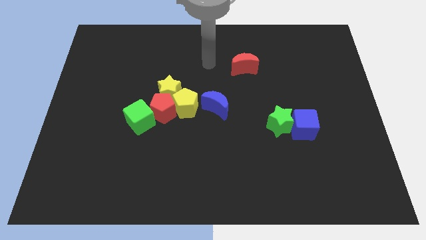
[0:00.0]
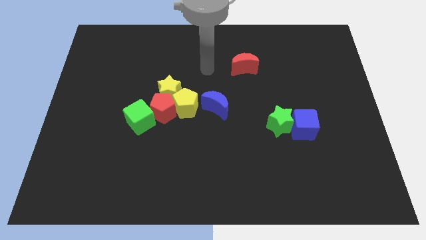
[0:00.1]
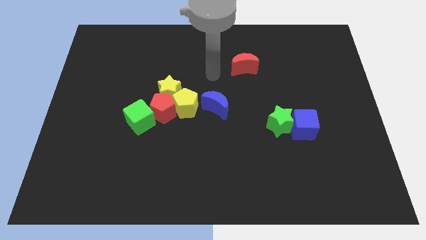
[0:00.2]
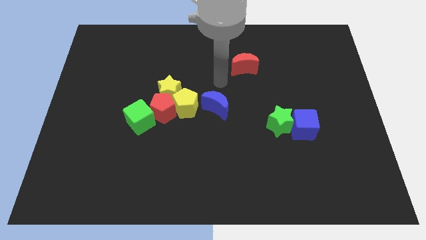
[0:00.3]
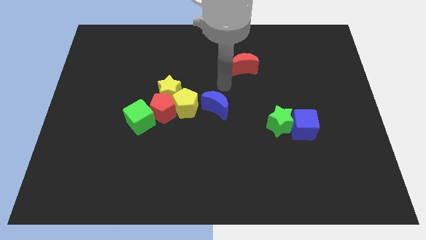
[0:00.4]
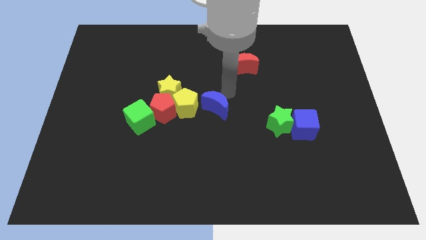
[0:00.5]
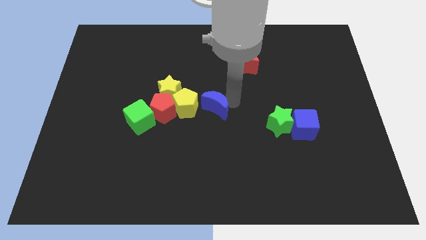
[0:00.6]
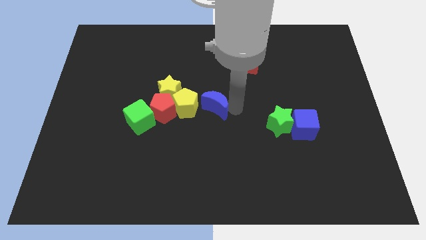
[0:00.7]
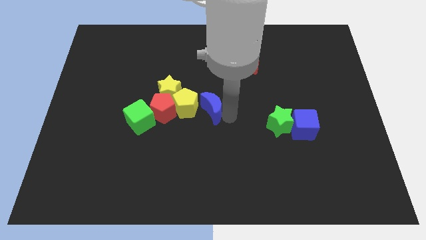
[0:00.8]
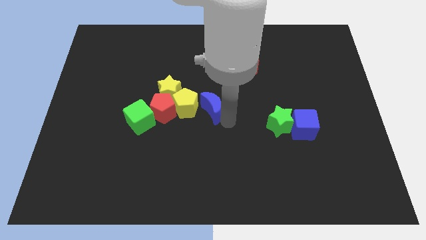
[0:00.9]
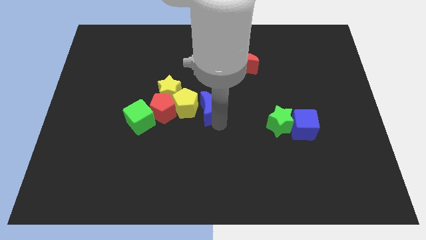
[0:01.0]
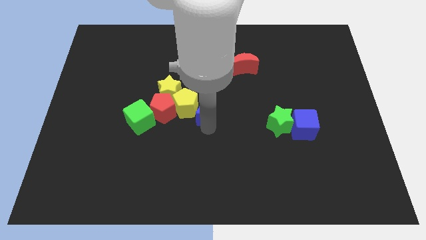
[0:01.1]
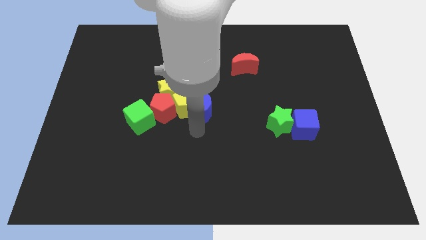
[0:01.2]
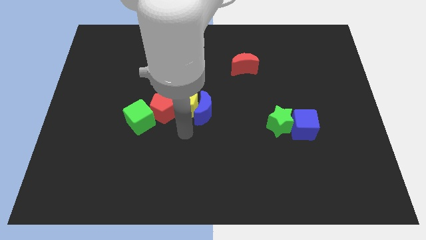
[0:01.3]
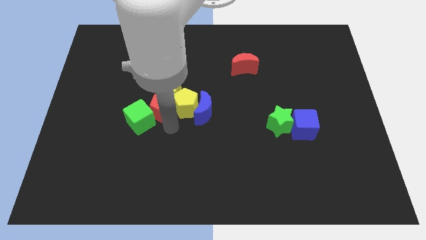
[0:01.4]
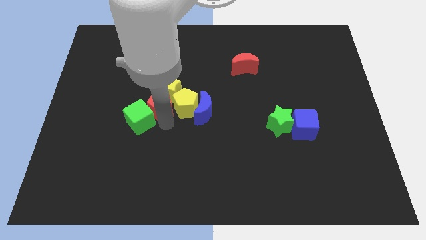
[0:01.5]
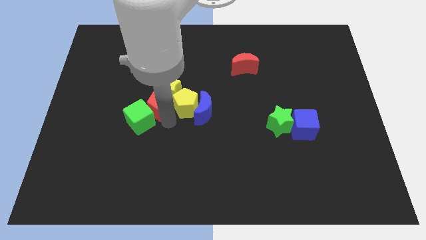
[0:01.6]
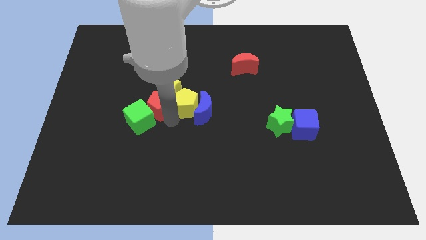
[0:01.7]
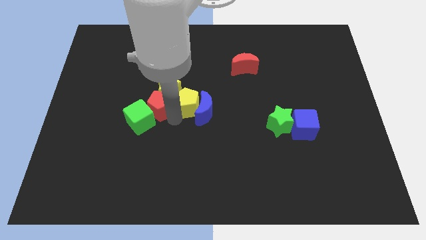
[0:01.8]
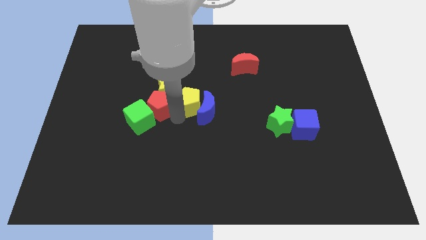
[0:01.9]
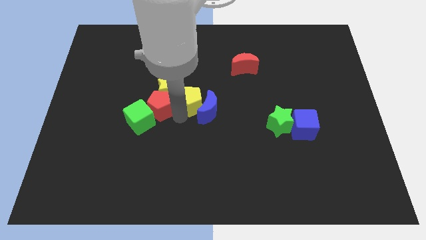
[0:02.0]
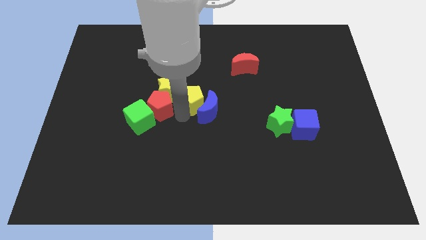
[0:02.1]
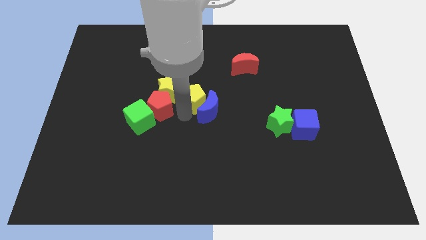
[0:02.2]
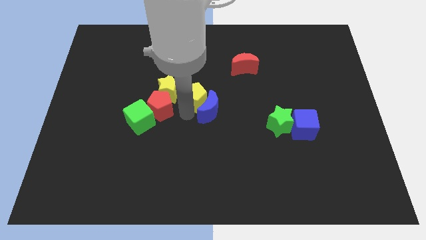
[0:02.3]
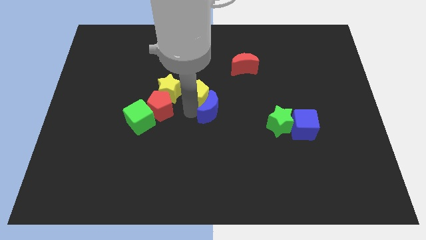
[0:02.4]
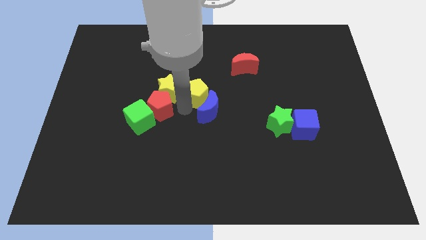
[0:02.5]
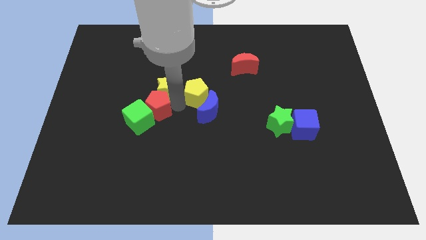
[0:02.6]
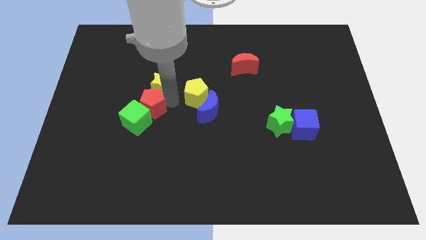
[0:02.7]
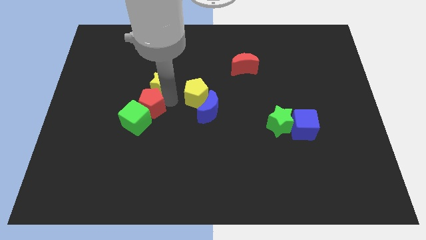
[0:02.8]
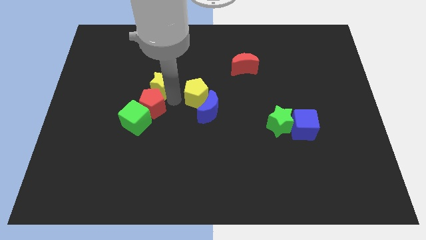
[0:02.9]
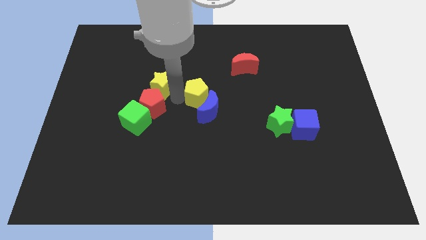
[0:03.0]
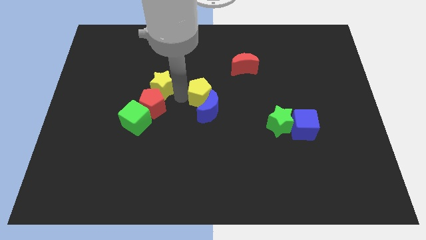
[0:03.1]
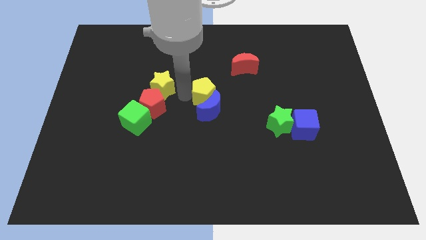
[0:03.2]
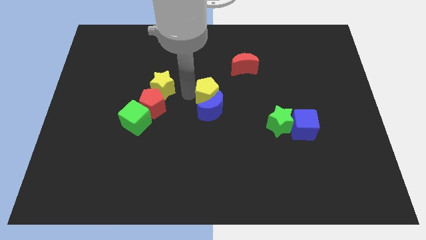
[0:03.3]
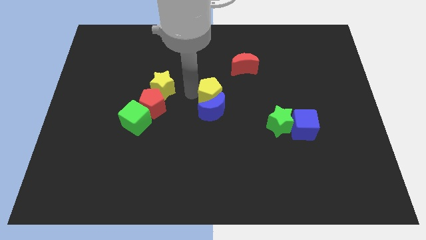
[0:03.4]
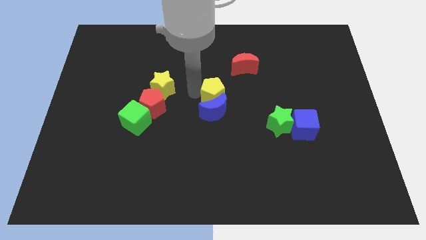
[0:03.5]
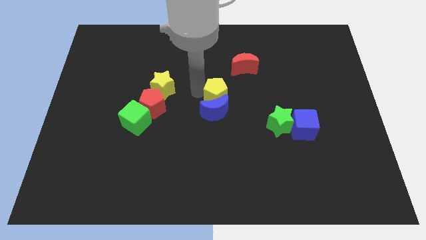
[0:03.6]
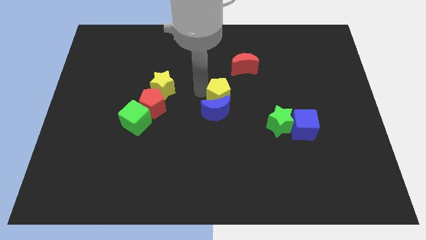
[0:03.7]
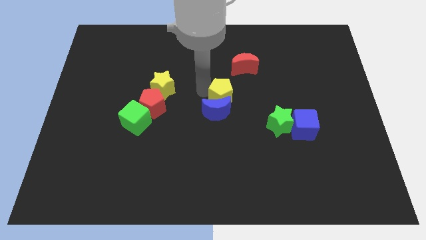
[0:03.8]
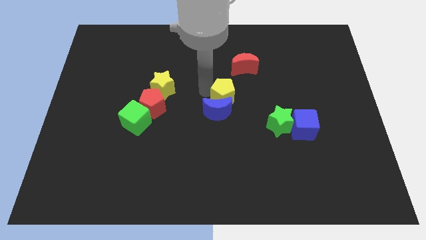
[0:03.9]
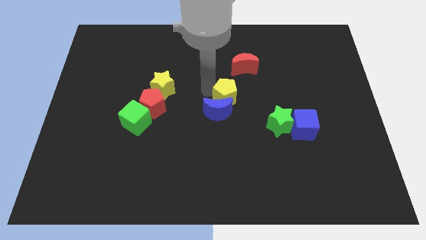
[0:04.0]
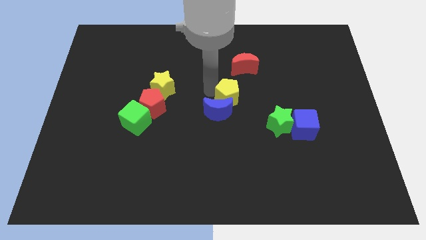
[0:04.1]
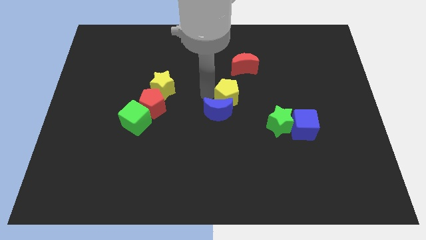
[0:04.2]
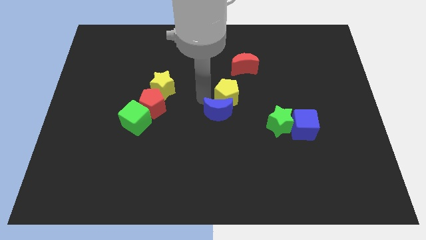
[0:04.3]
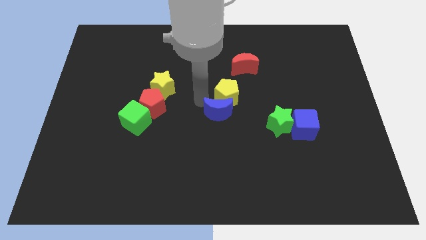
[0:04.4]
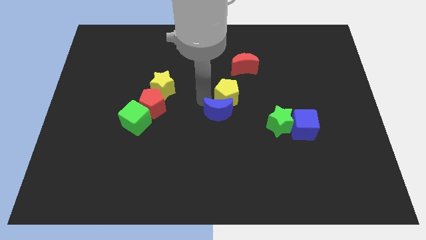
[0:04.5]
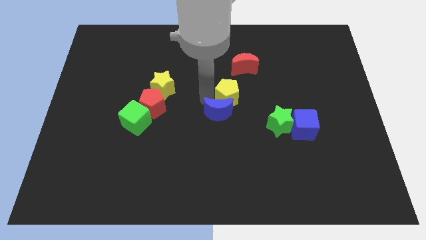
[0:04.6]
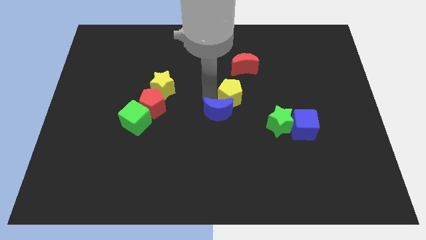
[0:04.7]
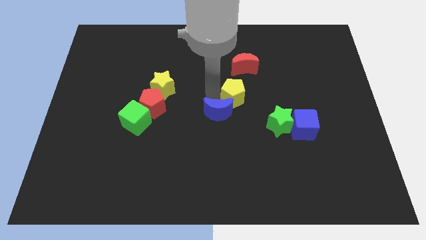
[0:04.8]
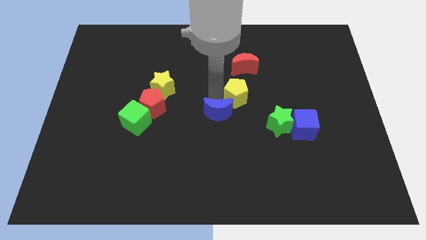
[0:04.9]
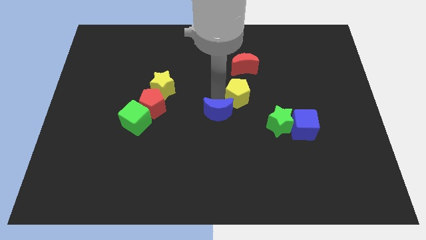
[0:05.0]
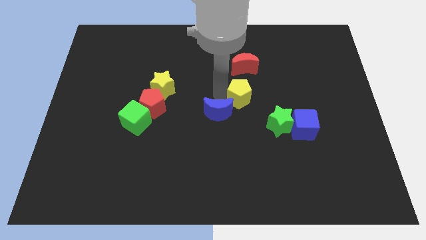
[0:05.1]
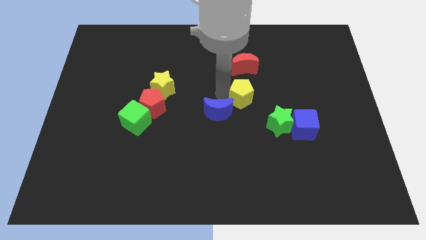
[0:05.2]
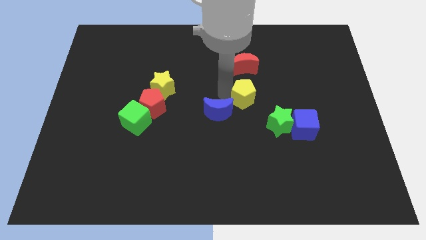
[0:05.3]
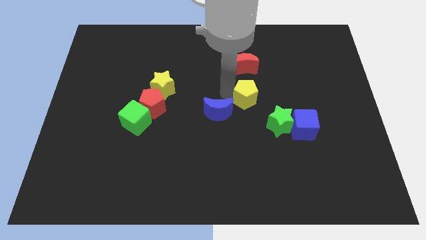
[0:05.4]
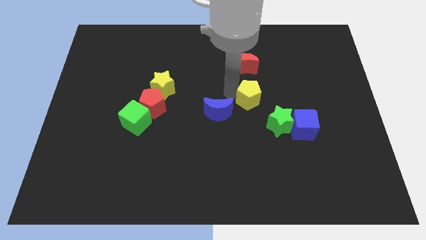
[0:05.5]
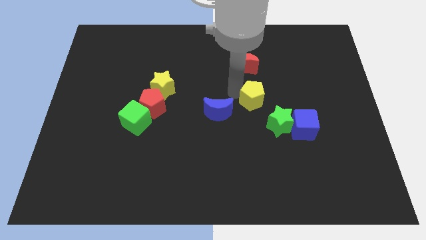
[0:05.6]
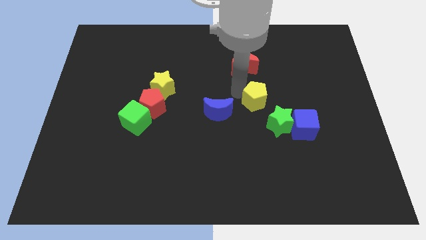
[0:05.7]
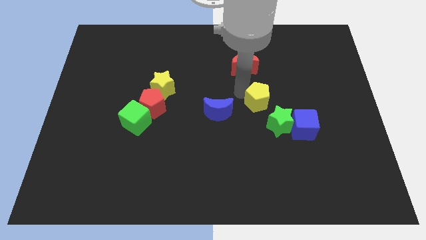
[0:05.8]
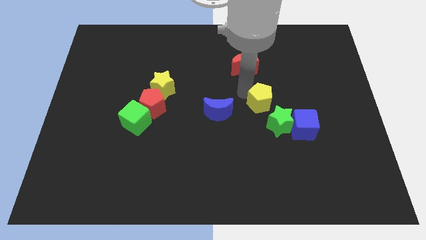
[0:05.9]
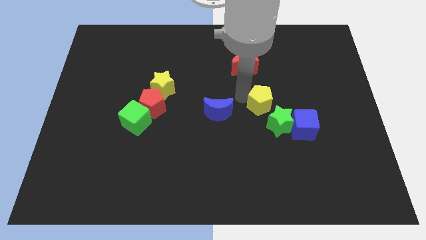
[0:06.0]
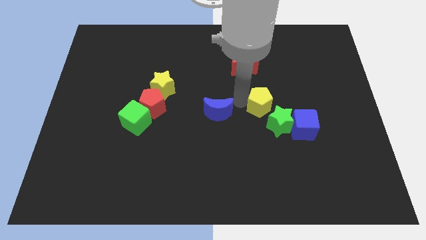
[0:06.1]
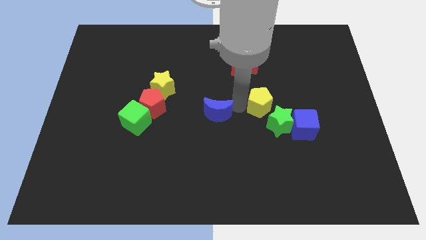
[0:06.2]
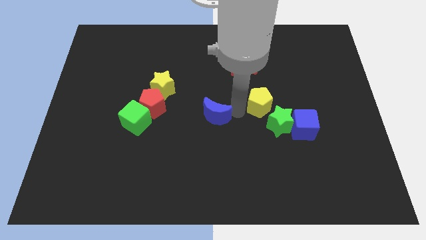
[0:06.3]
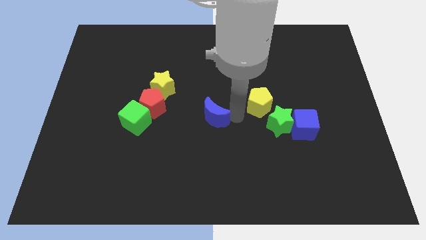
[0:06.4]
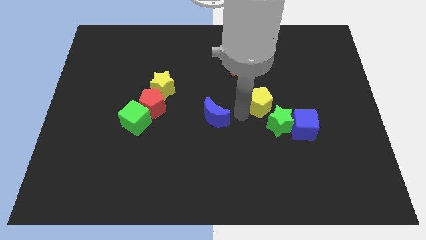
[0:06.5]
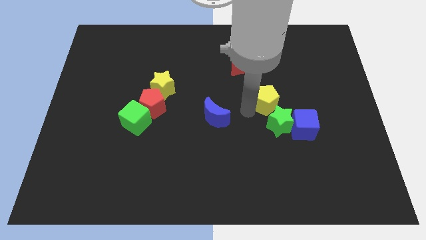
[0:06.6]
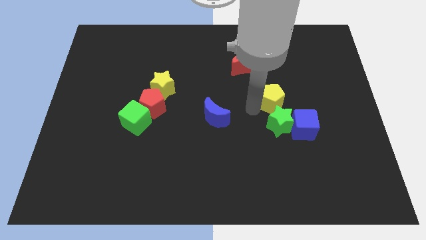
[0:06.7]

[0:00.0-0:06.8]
move the yellow pentagon to the right

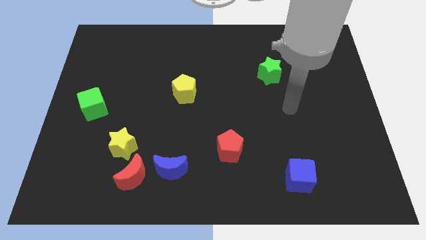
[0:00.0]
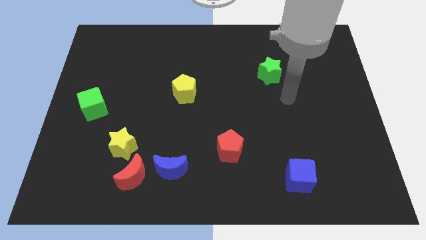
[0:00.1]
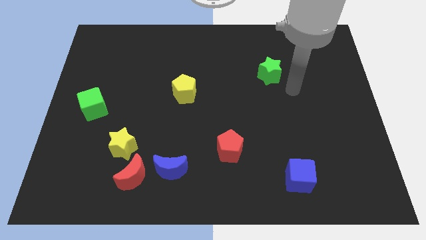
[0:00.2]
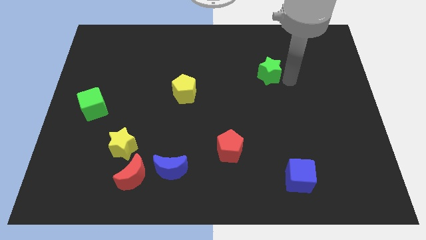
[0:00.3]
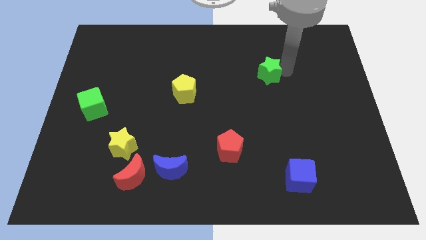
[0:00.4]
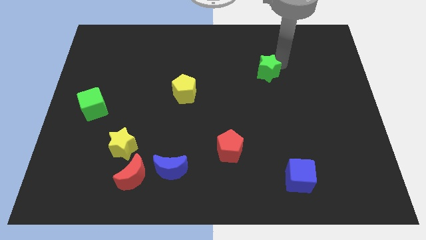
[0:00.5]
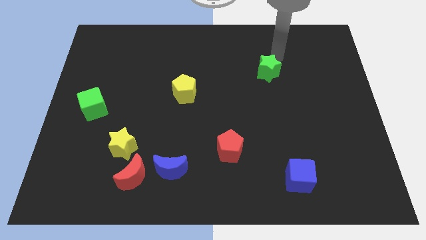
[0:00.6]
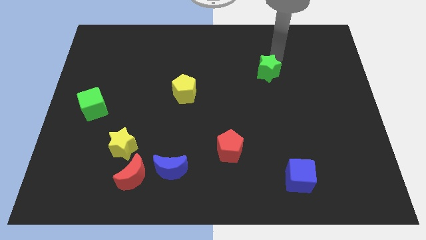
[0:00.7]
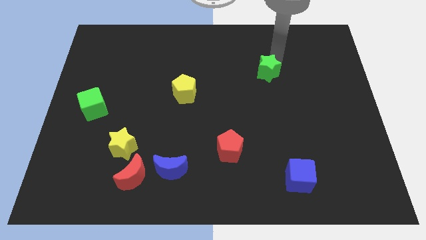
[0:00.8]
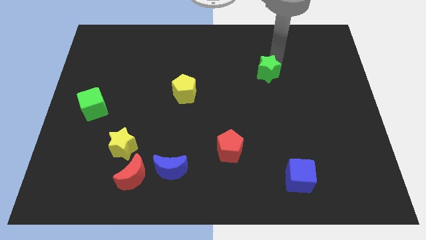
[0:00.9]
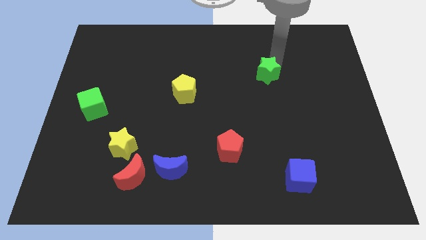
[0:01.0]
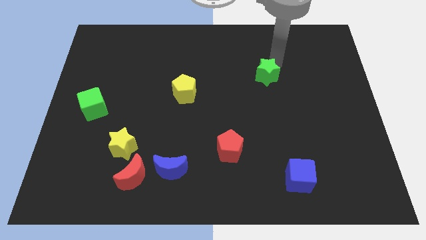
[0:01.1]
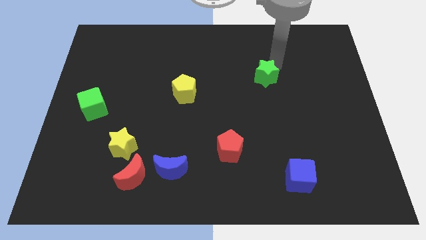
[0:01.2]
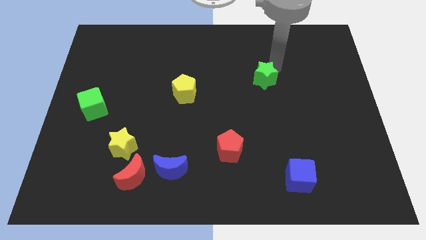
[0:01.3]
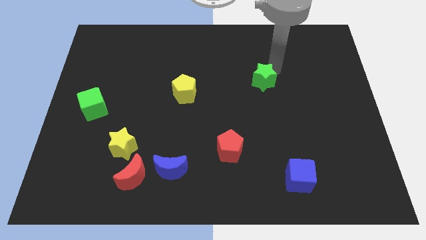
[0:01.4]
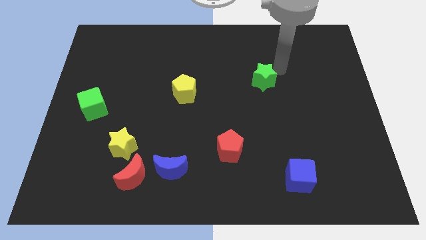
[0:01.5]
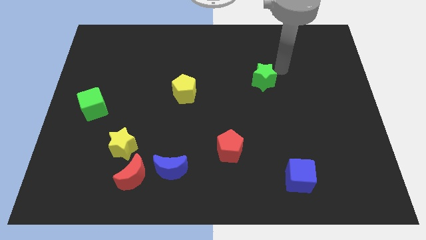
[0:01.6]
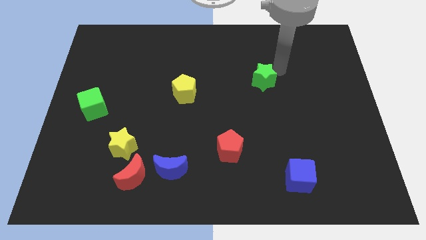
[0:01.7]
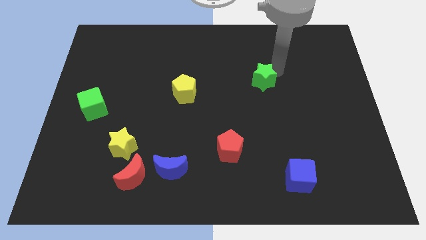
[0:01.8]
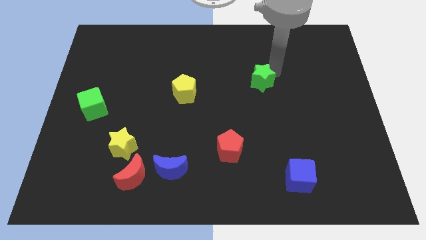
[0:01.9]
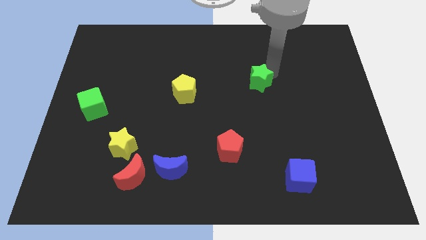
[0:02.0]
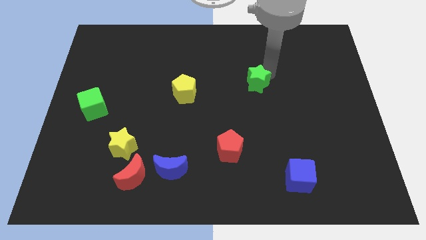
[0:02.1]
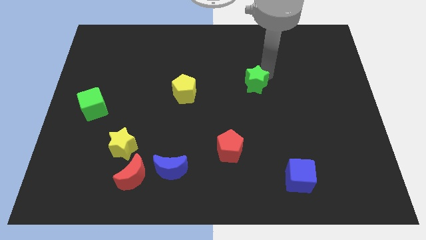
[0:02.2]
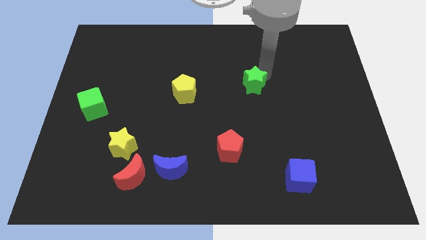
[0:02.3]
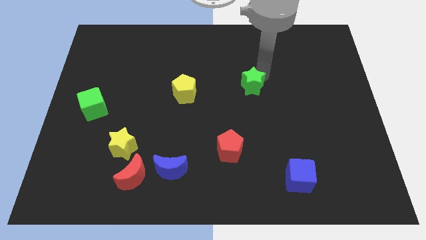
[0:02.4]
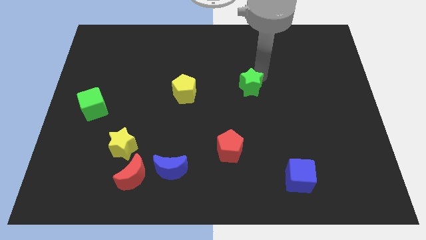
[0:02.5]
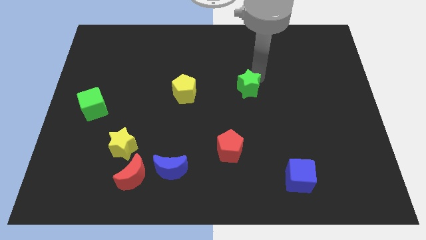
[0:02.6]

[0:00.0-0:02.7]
push the green star down and to the left diagonally a bit
